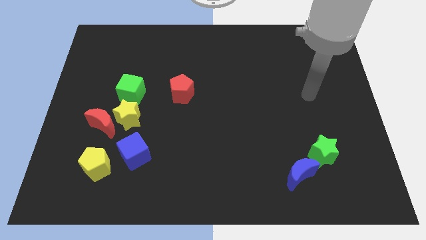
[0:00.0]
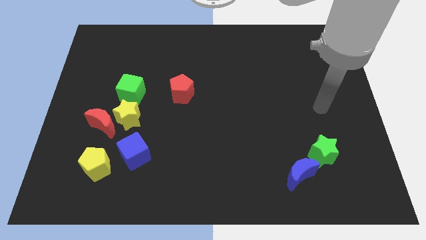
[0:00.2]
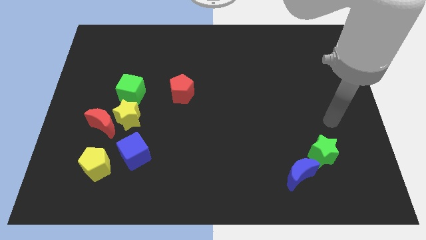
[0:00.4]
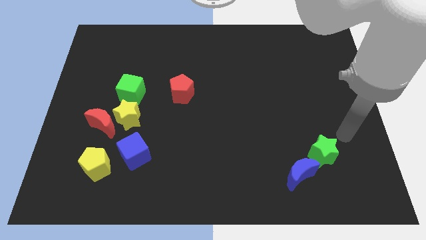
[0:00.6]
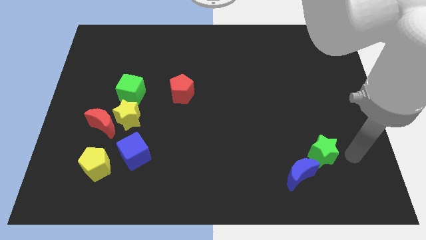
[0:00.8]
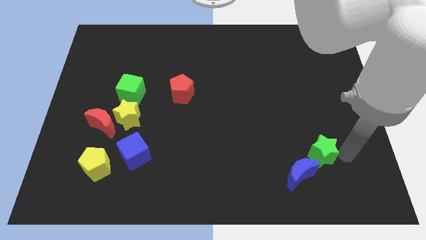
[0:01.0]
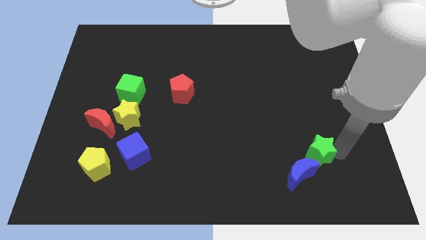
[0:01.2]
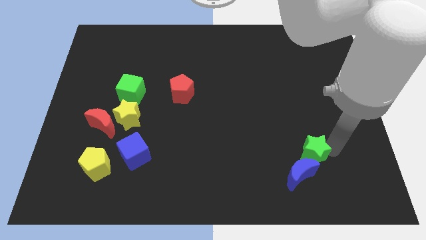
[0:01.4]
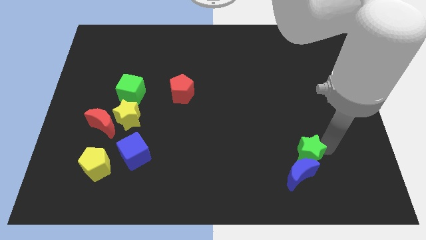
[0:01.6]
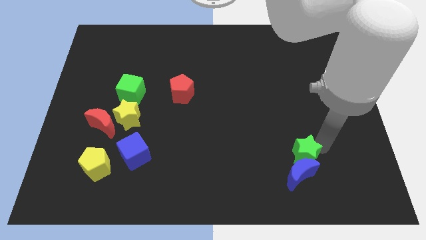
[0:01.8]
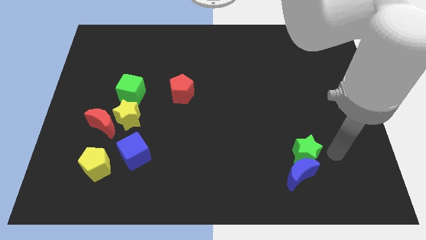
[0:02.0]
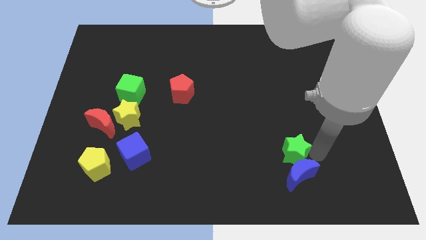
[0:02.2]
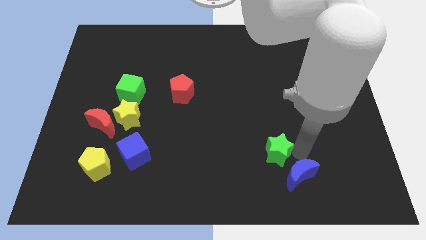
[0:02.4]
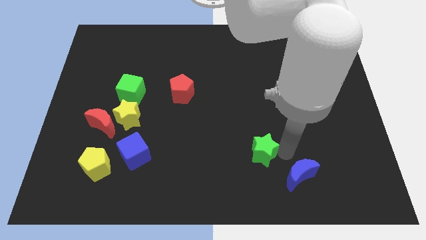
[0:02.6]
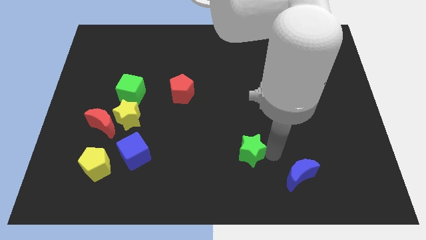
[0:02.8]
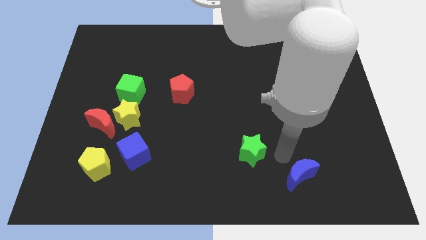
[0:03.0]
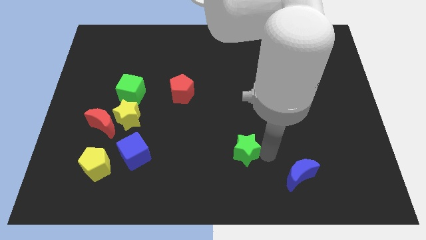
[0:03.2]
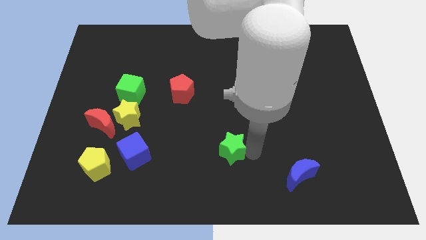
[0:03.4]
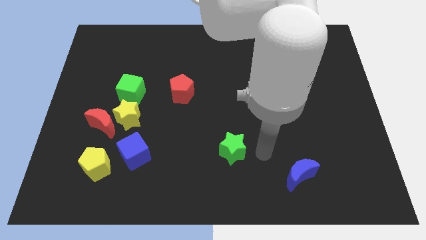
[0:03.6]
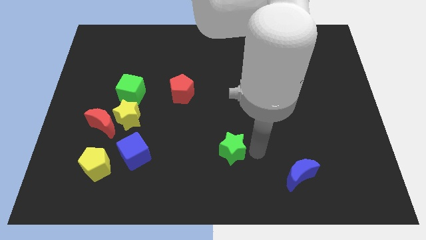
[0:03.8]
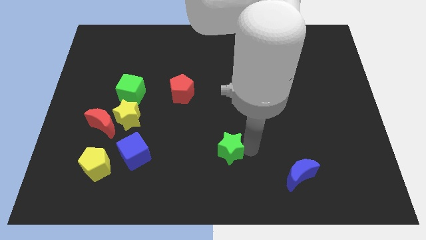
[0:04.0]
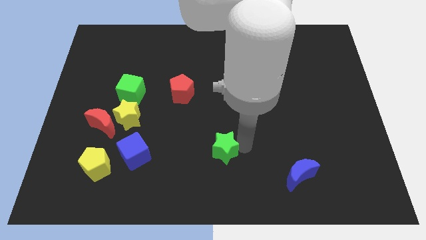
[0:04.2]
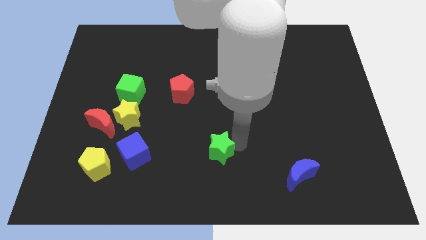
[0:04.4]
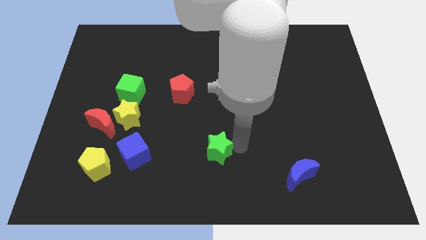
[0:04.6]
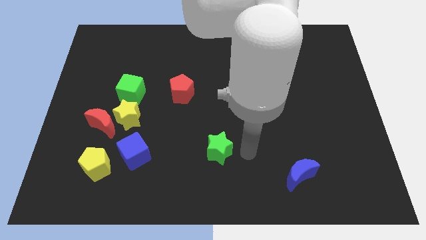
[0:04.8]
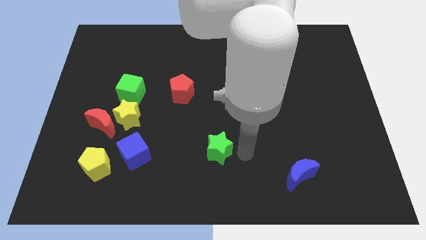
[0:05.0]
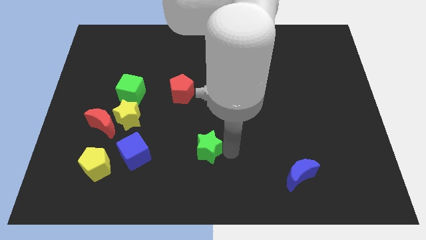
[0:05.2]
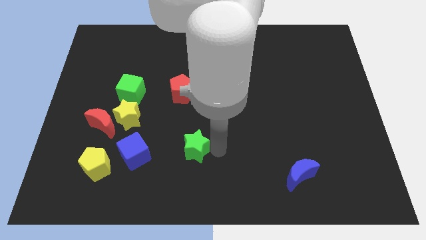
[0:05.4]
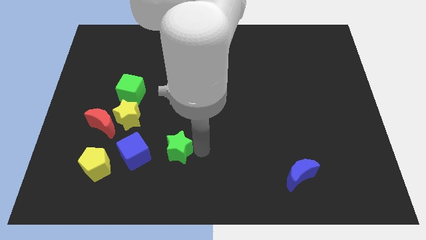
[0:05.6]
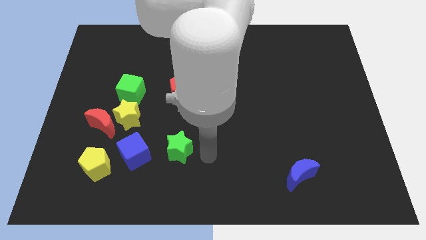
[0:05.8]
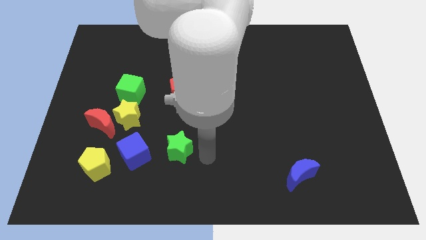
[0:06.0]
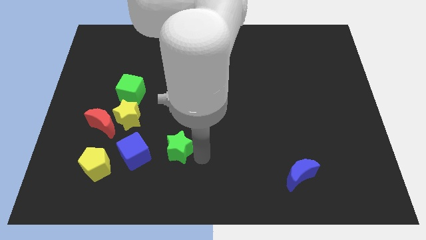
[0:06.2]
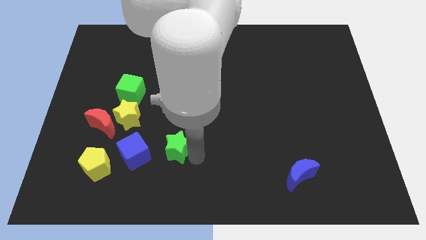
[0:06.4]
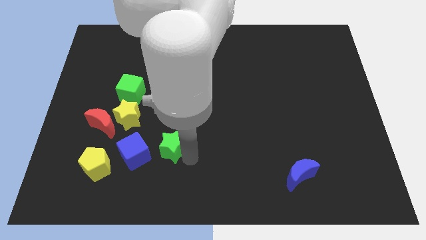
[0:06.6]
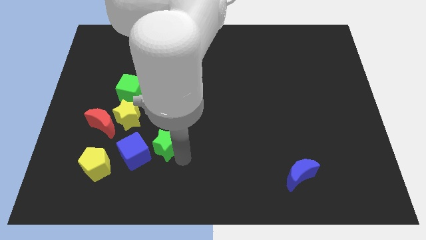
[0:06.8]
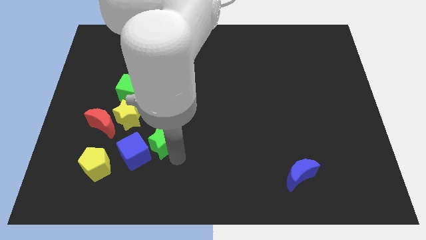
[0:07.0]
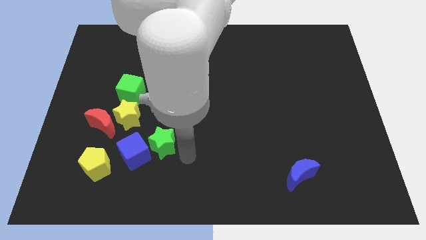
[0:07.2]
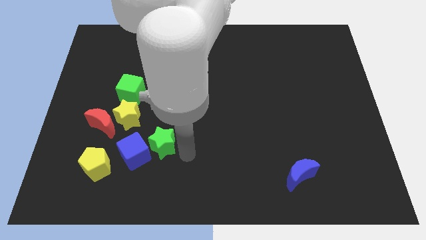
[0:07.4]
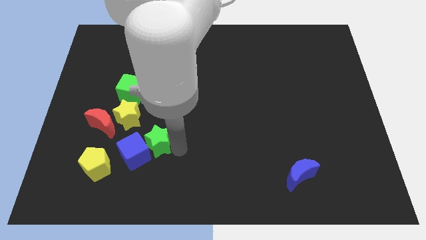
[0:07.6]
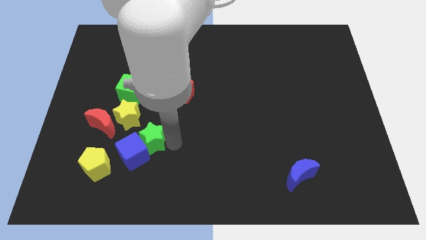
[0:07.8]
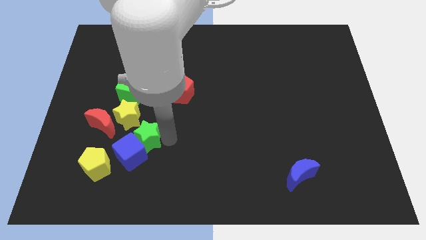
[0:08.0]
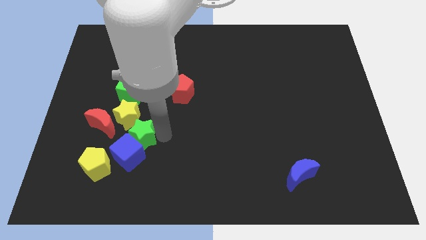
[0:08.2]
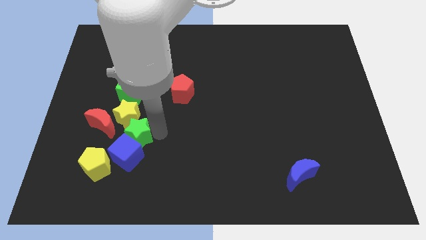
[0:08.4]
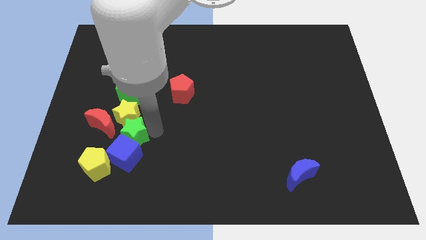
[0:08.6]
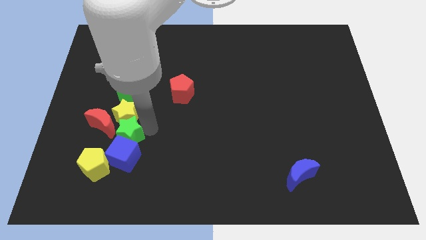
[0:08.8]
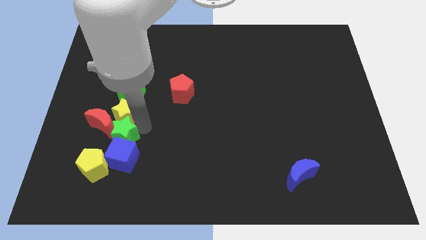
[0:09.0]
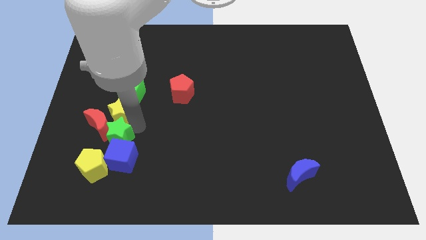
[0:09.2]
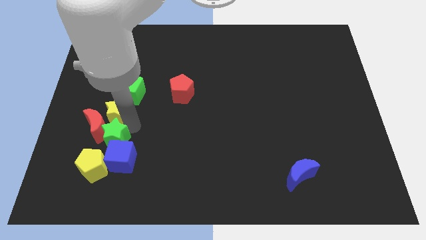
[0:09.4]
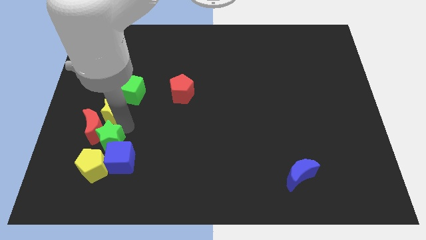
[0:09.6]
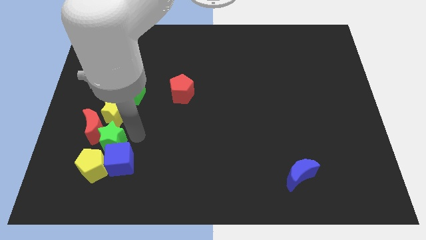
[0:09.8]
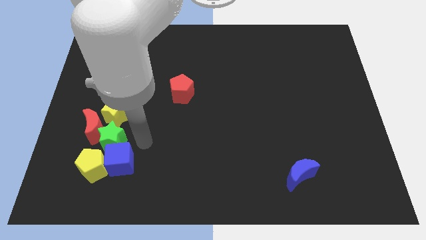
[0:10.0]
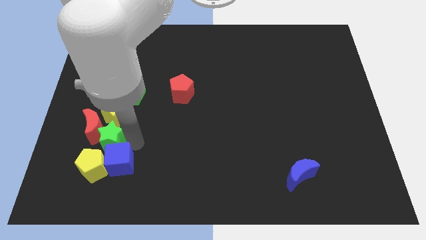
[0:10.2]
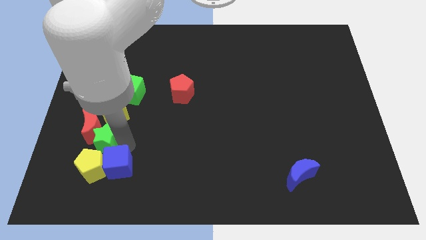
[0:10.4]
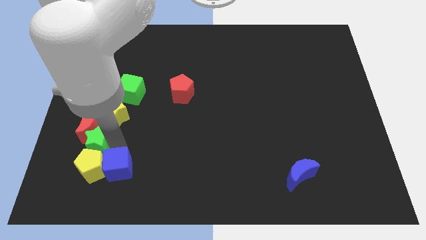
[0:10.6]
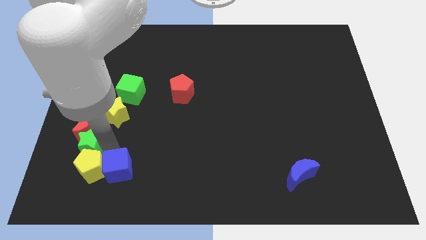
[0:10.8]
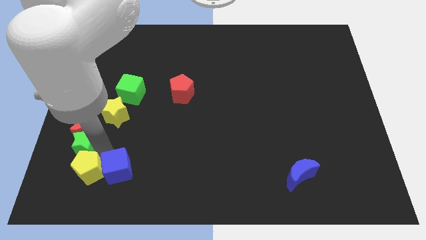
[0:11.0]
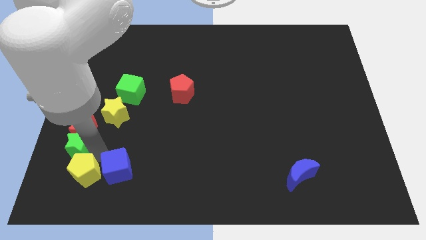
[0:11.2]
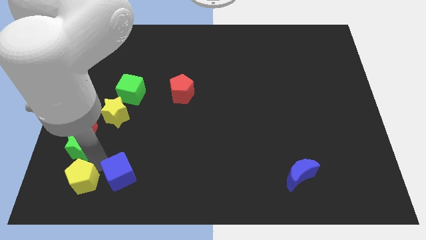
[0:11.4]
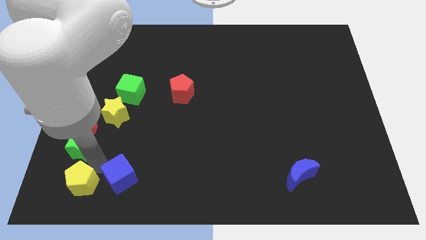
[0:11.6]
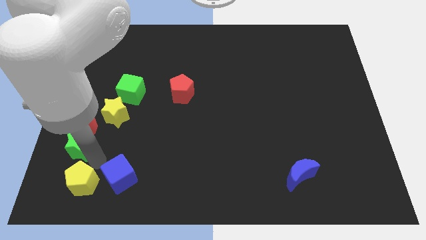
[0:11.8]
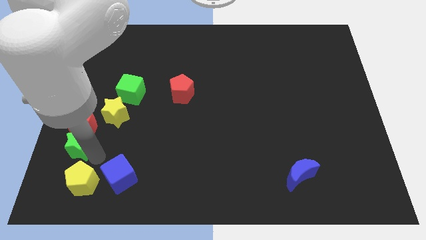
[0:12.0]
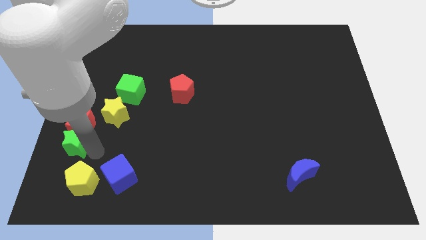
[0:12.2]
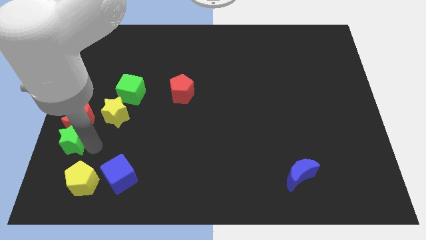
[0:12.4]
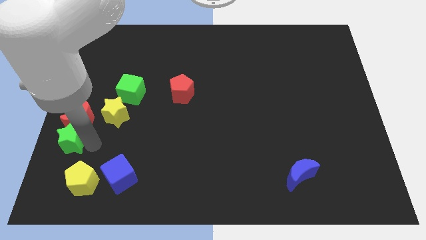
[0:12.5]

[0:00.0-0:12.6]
slide the green star to the left side

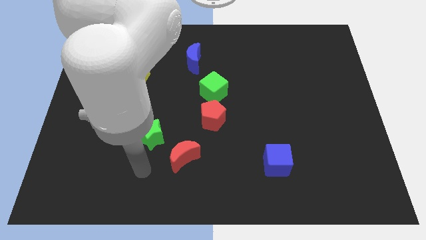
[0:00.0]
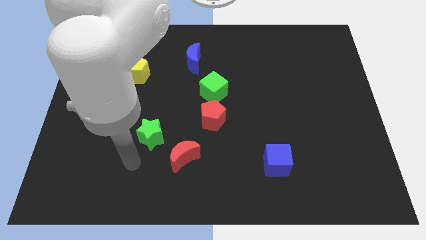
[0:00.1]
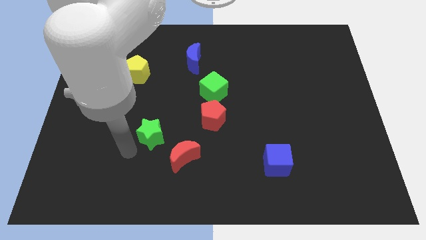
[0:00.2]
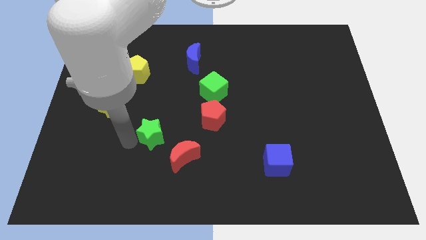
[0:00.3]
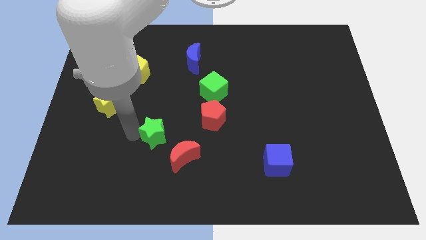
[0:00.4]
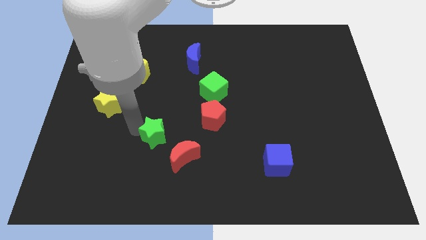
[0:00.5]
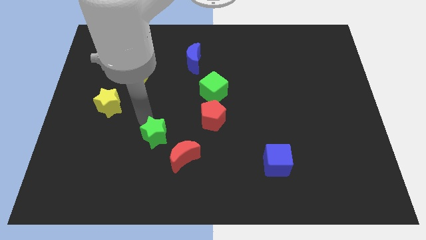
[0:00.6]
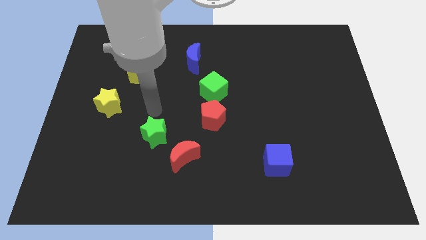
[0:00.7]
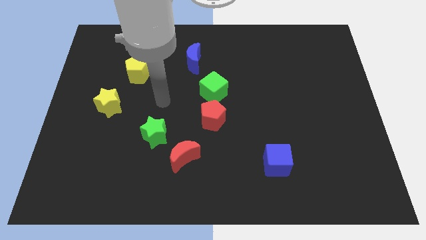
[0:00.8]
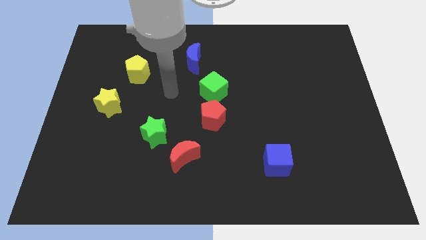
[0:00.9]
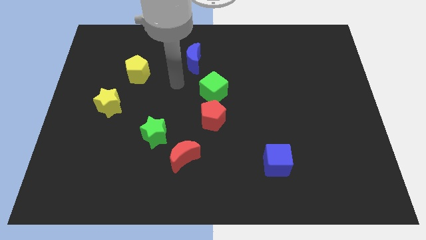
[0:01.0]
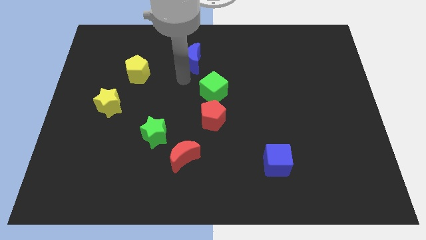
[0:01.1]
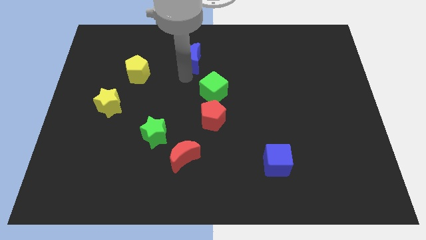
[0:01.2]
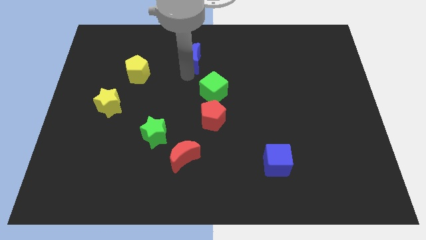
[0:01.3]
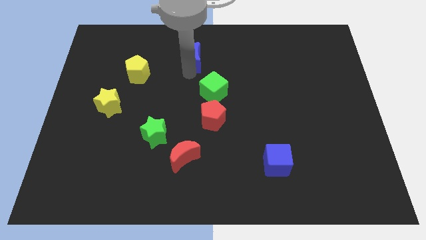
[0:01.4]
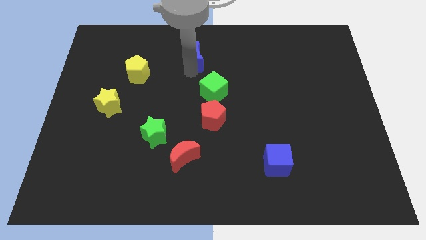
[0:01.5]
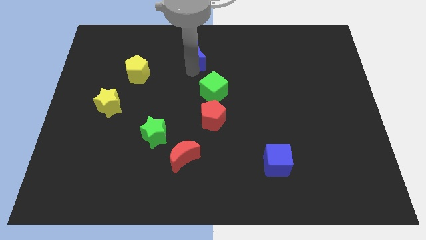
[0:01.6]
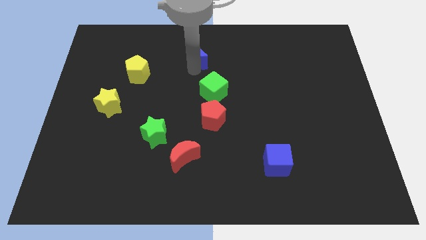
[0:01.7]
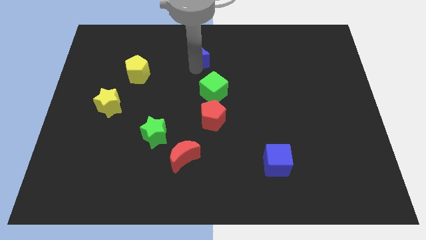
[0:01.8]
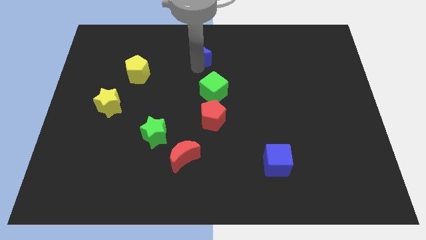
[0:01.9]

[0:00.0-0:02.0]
move the blue moon to the top
